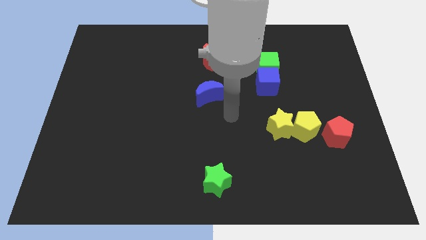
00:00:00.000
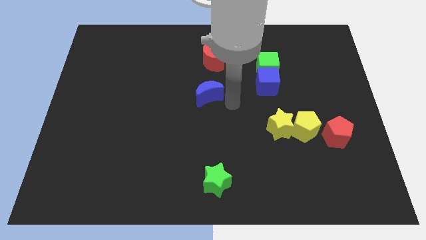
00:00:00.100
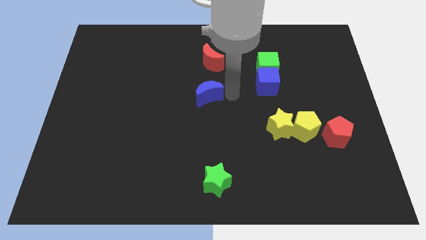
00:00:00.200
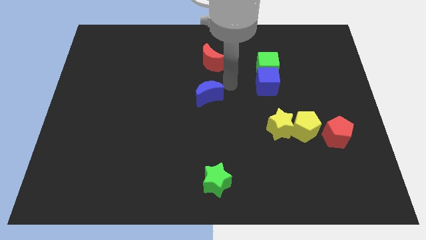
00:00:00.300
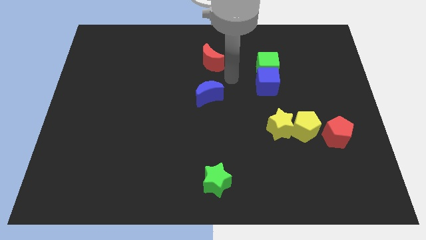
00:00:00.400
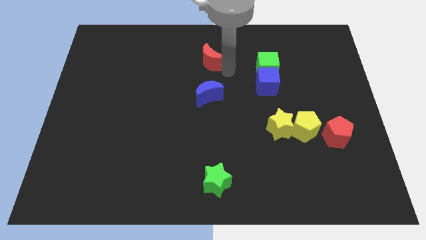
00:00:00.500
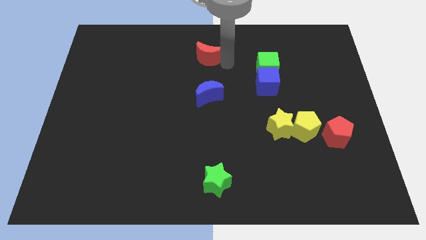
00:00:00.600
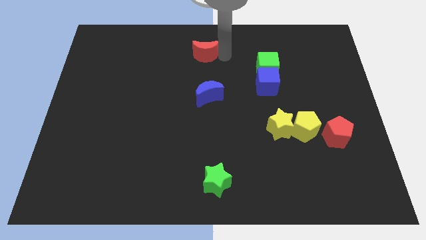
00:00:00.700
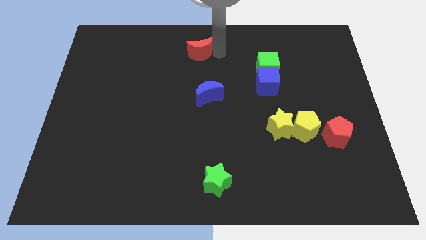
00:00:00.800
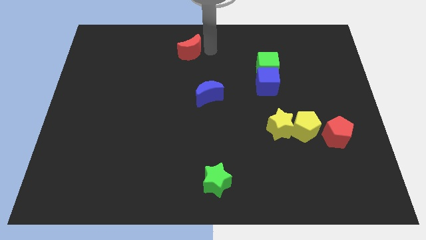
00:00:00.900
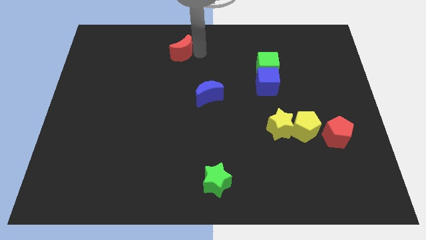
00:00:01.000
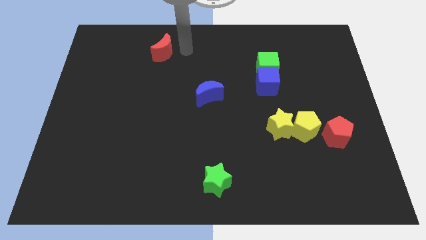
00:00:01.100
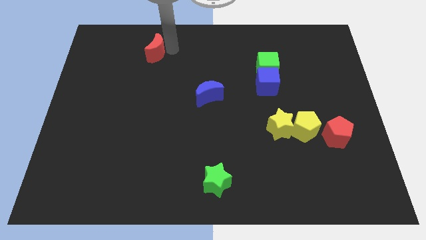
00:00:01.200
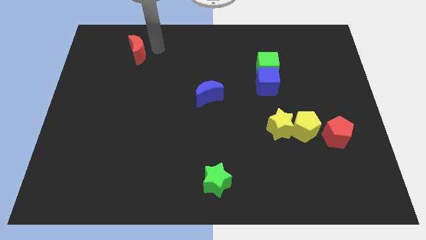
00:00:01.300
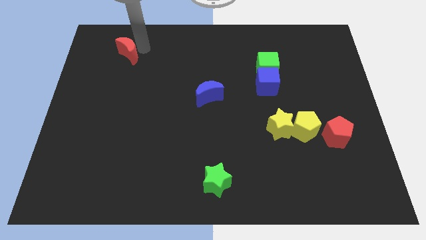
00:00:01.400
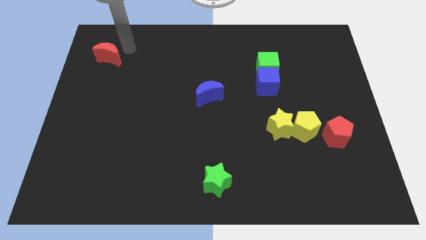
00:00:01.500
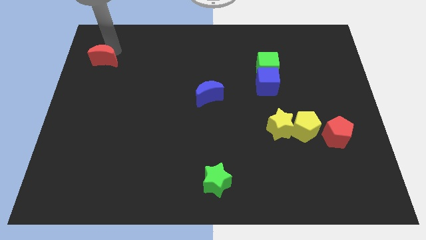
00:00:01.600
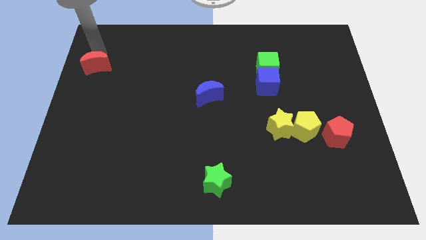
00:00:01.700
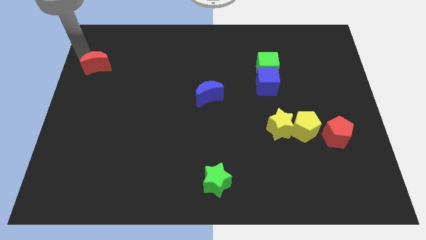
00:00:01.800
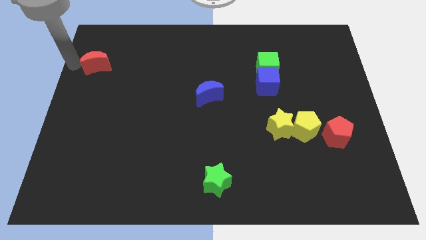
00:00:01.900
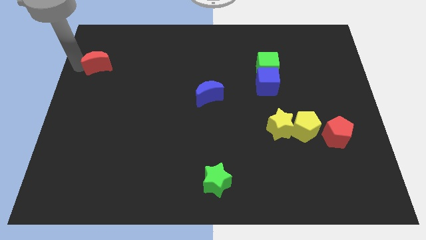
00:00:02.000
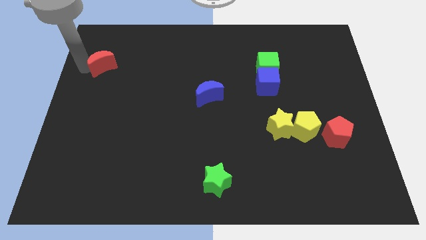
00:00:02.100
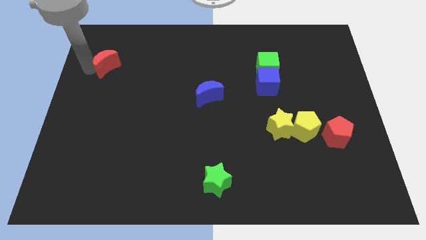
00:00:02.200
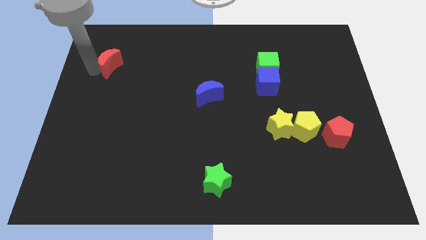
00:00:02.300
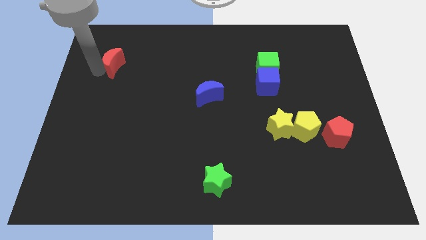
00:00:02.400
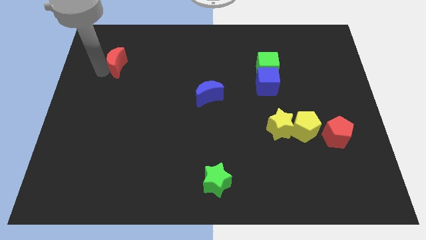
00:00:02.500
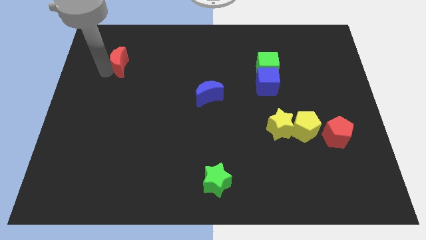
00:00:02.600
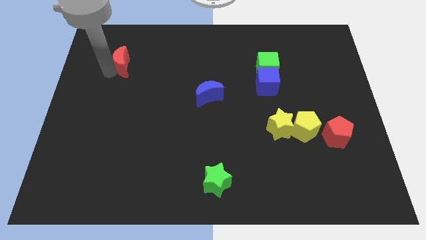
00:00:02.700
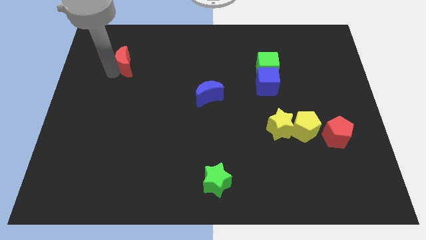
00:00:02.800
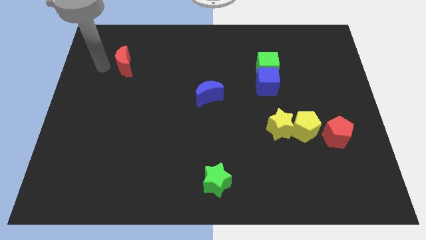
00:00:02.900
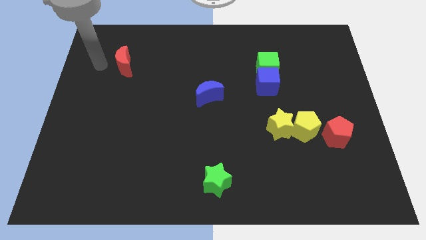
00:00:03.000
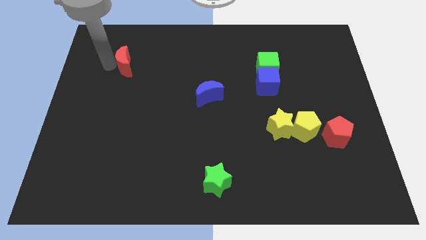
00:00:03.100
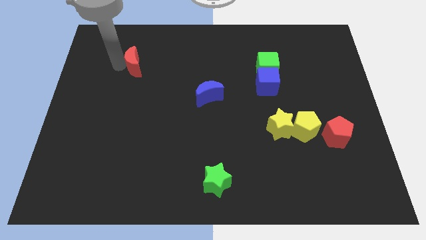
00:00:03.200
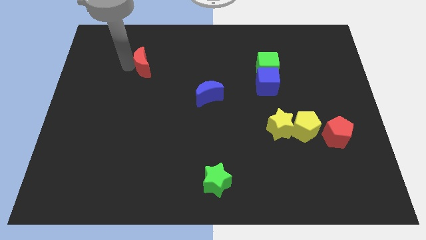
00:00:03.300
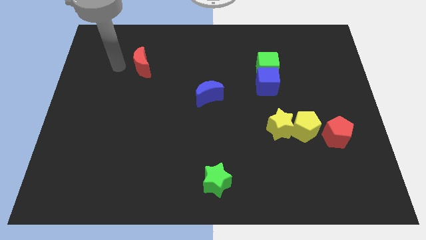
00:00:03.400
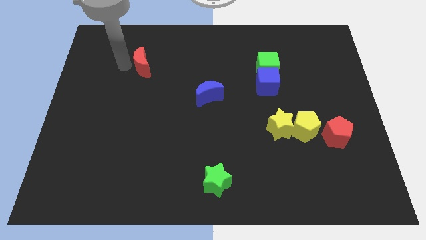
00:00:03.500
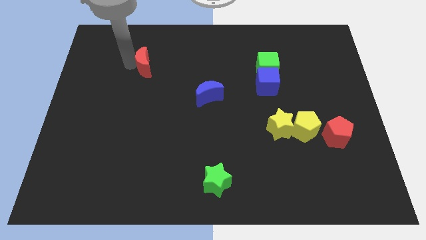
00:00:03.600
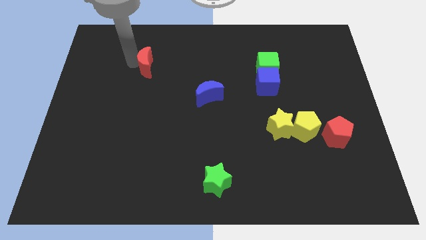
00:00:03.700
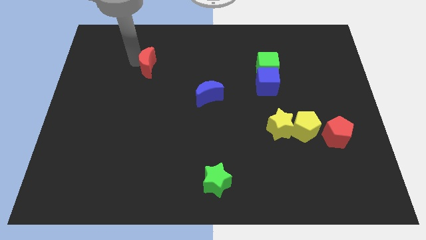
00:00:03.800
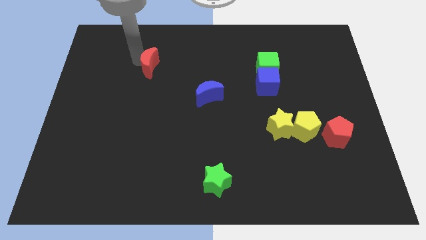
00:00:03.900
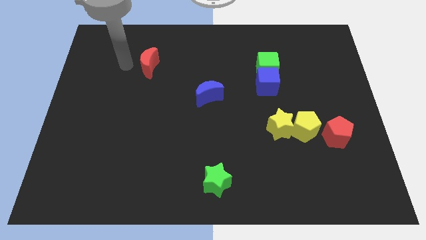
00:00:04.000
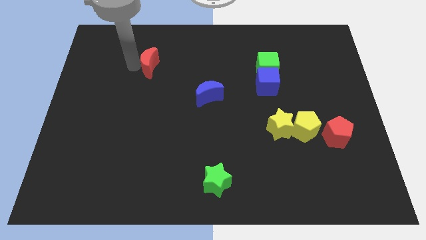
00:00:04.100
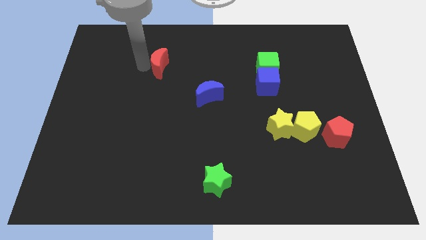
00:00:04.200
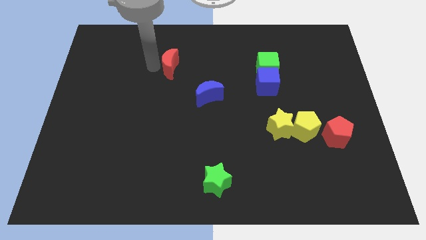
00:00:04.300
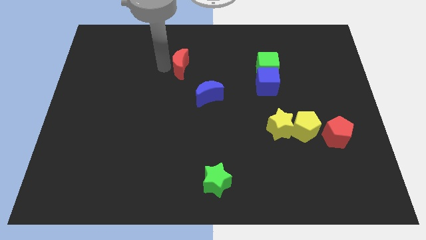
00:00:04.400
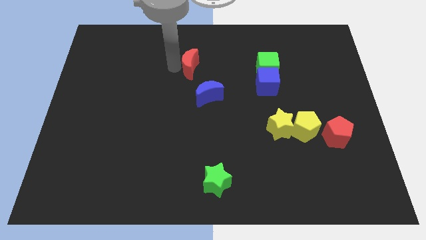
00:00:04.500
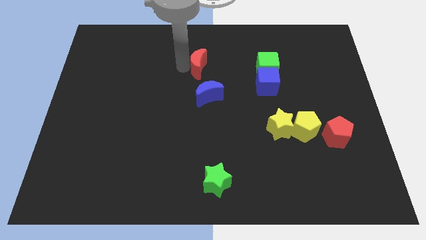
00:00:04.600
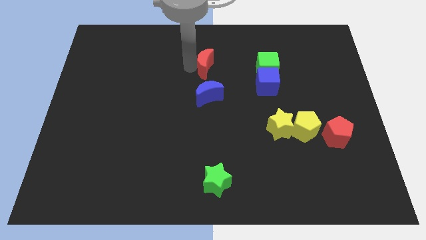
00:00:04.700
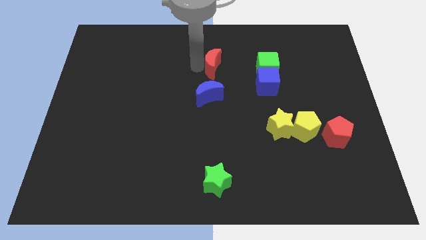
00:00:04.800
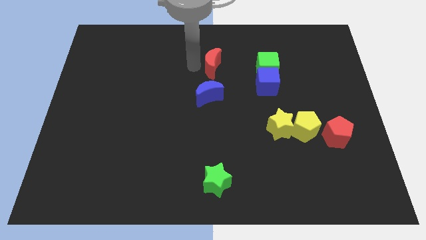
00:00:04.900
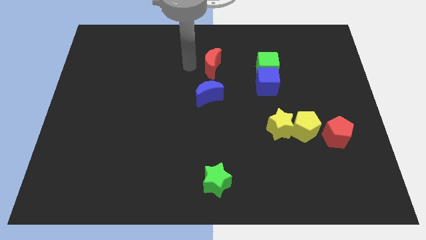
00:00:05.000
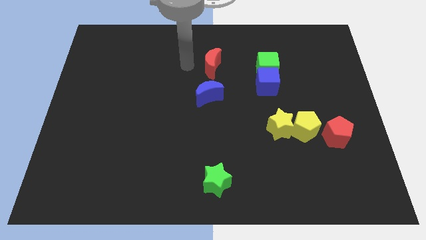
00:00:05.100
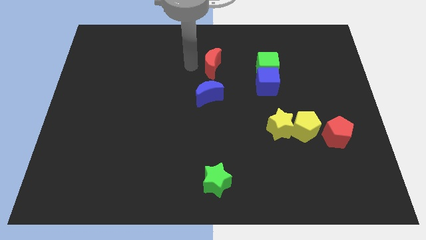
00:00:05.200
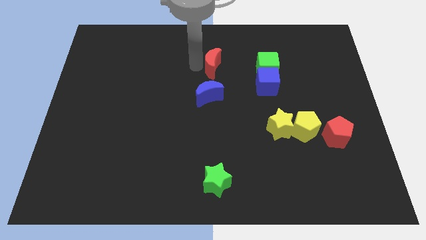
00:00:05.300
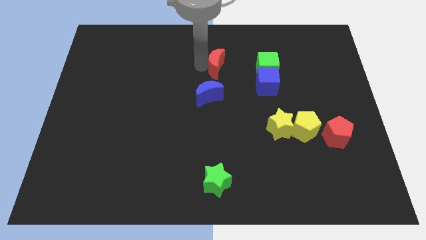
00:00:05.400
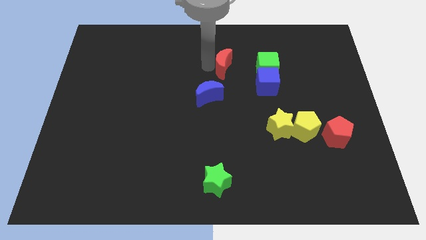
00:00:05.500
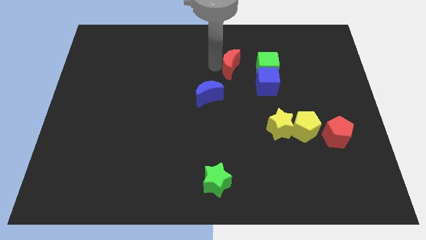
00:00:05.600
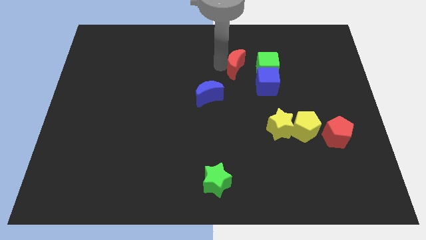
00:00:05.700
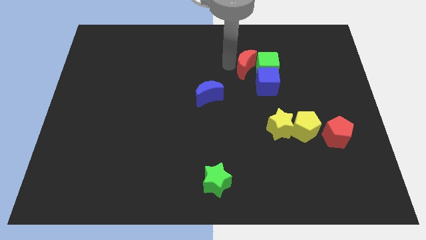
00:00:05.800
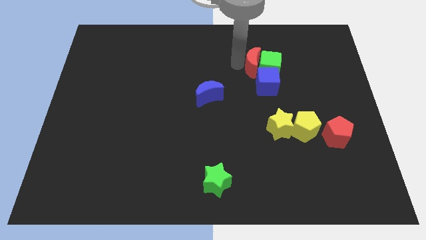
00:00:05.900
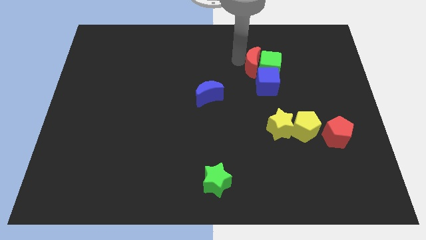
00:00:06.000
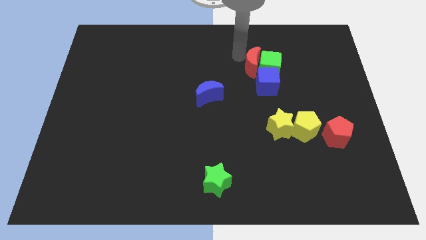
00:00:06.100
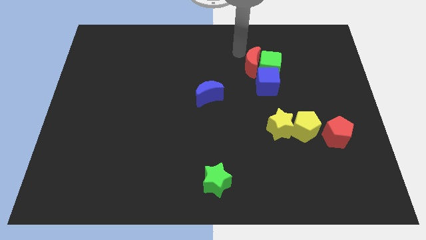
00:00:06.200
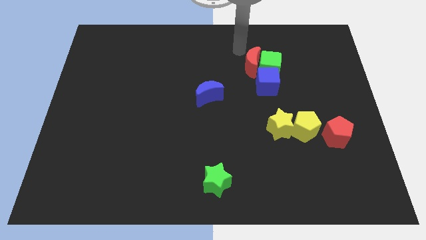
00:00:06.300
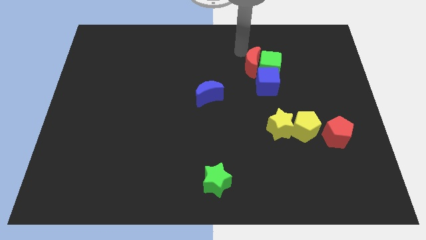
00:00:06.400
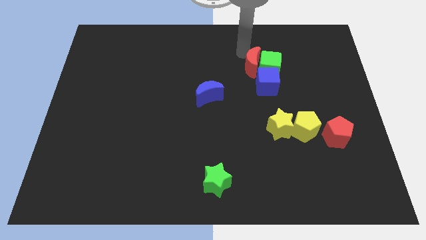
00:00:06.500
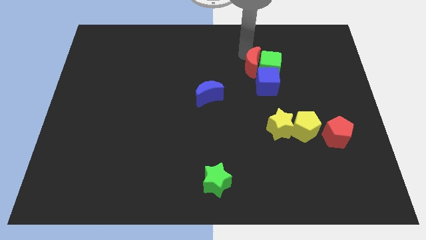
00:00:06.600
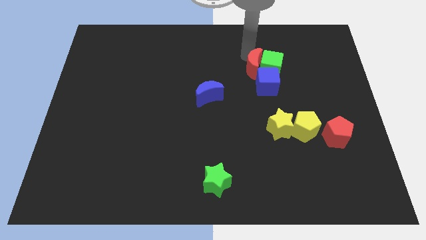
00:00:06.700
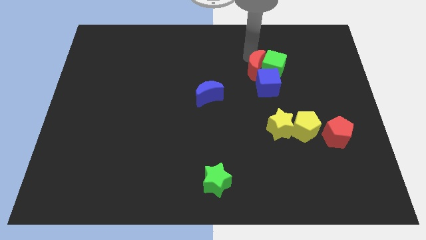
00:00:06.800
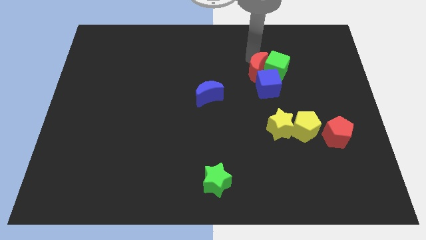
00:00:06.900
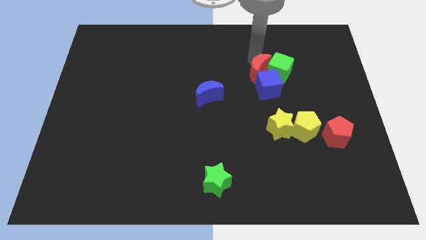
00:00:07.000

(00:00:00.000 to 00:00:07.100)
push the red moon next to the blue cube

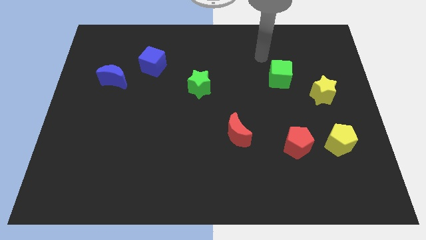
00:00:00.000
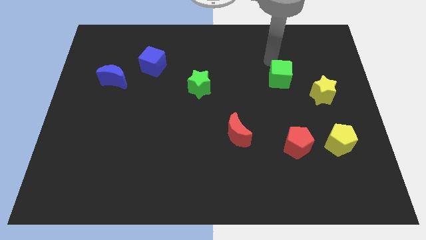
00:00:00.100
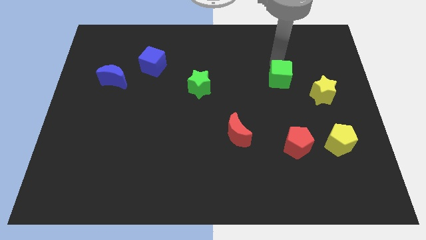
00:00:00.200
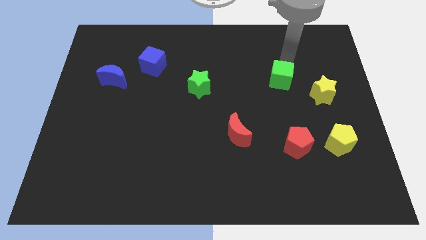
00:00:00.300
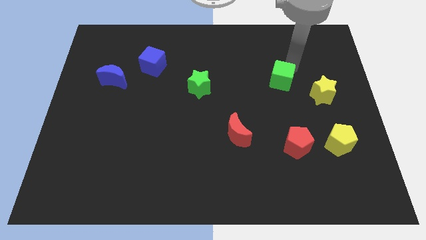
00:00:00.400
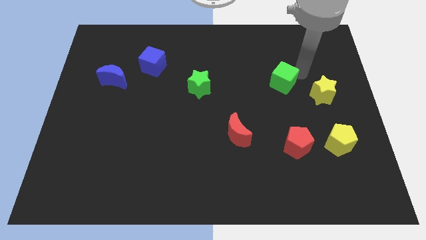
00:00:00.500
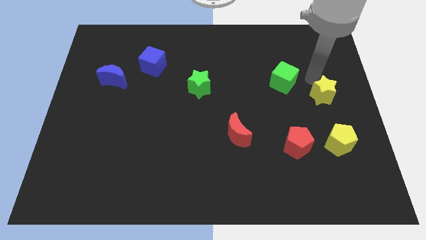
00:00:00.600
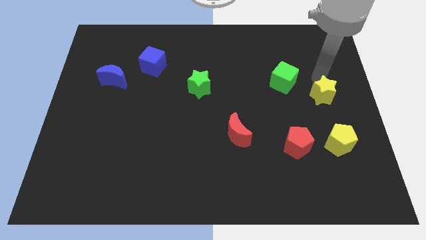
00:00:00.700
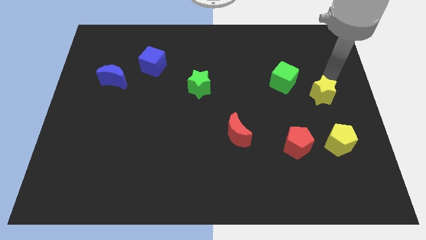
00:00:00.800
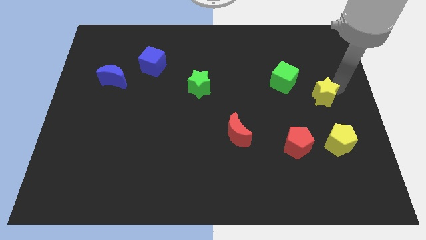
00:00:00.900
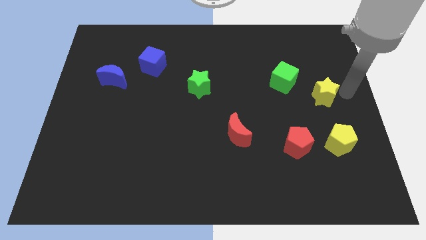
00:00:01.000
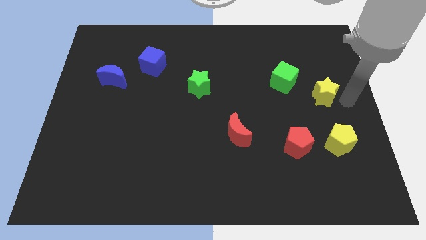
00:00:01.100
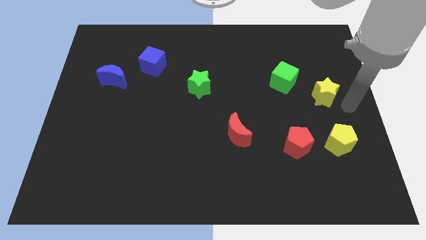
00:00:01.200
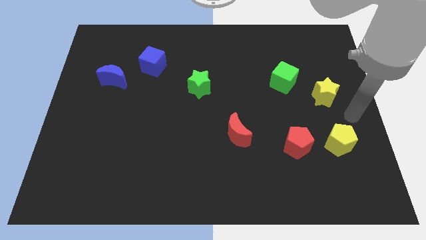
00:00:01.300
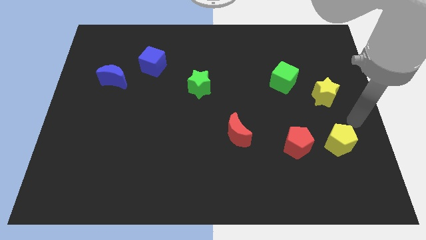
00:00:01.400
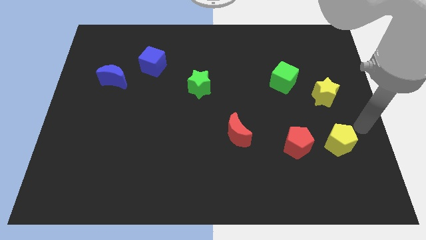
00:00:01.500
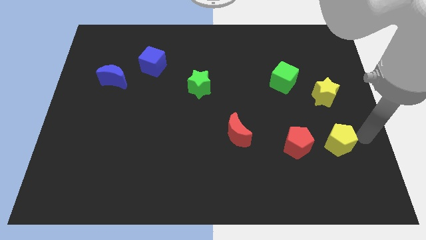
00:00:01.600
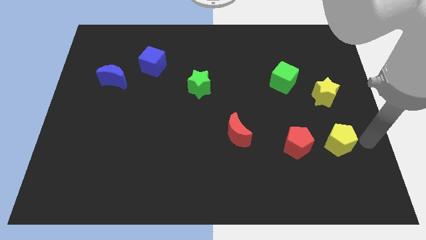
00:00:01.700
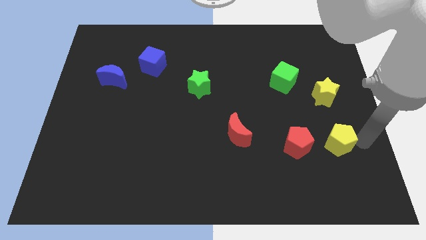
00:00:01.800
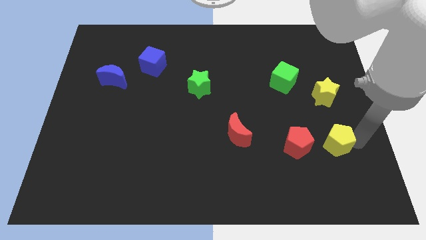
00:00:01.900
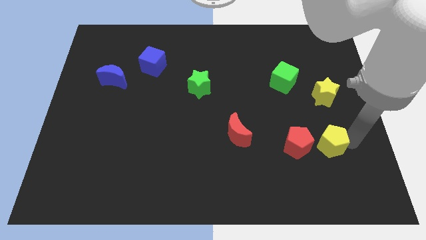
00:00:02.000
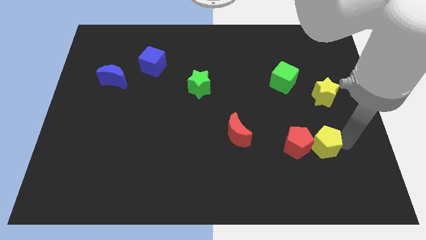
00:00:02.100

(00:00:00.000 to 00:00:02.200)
move the yellow pentagon next to the red pentagon
